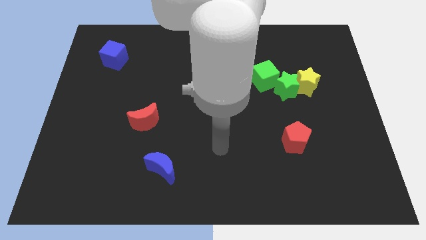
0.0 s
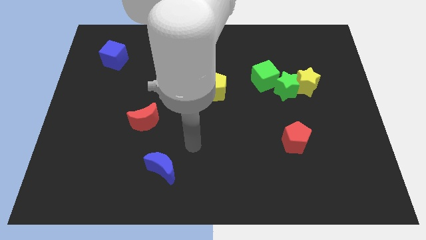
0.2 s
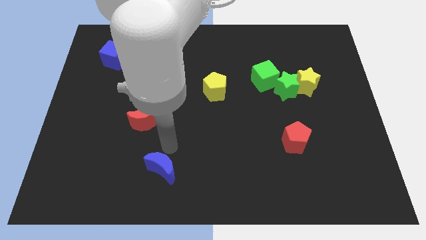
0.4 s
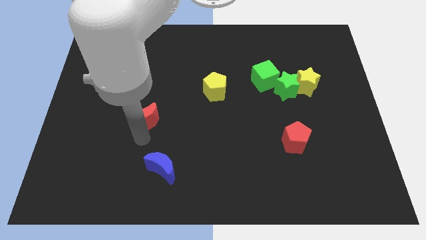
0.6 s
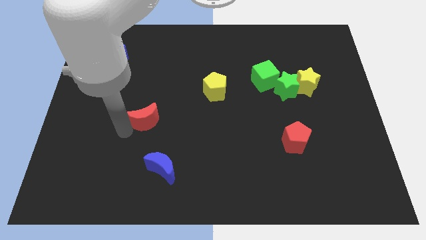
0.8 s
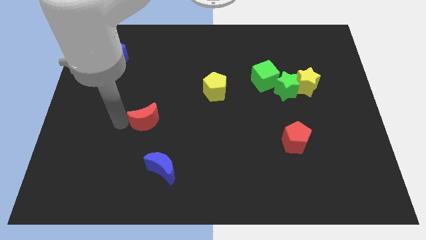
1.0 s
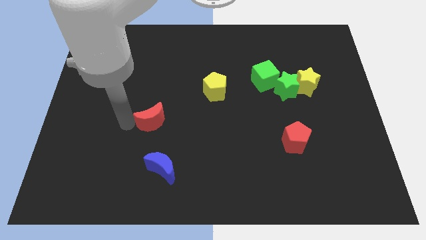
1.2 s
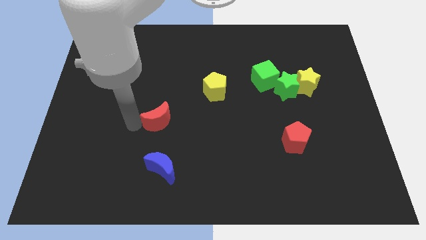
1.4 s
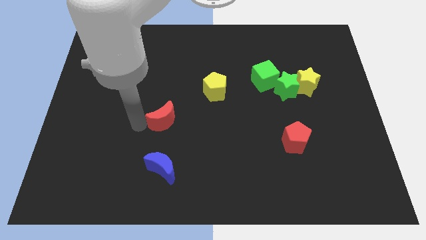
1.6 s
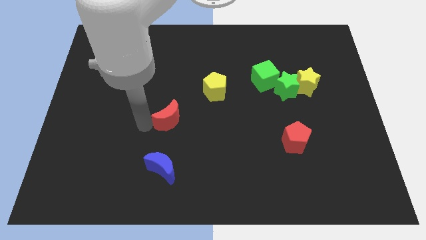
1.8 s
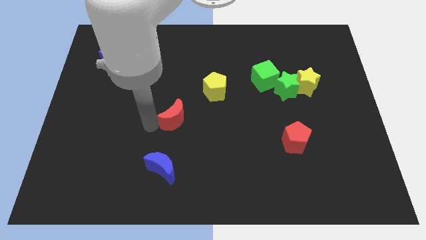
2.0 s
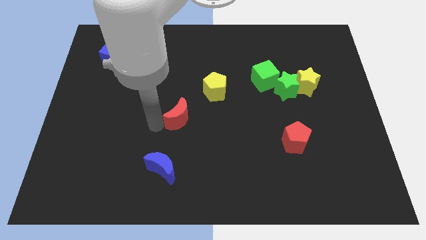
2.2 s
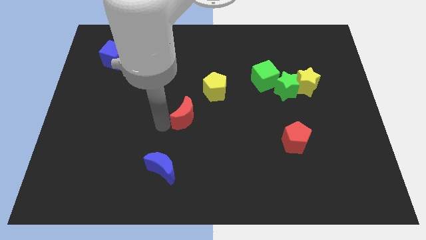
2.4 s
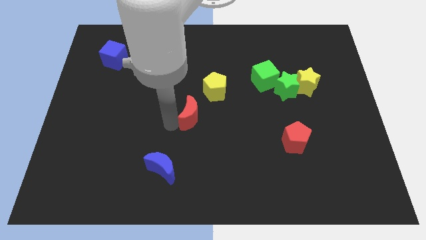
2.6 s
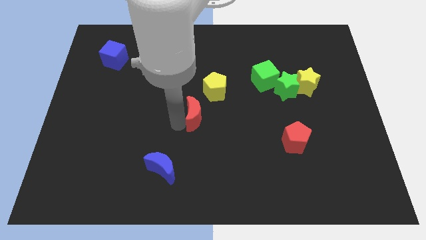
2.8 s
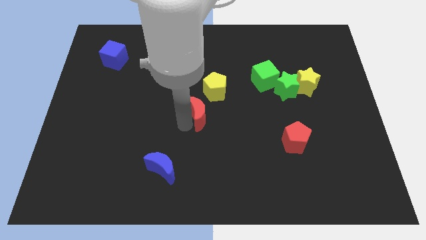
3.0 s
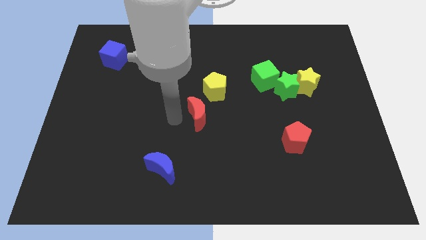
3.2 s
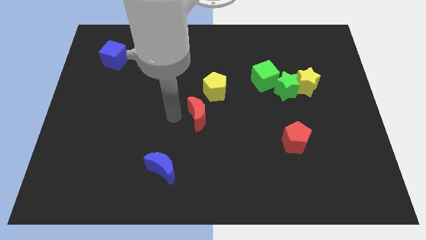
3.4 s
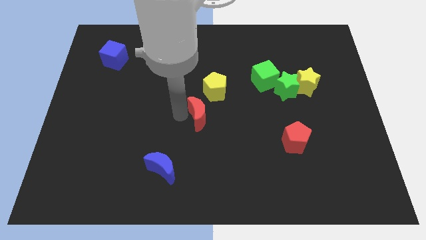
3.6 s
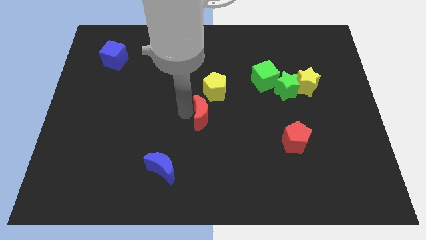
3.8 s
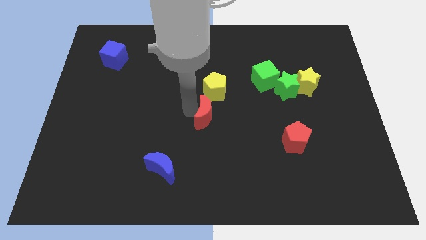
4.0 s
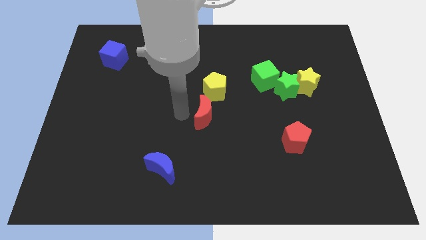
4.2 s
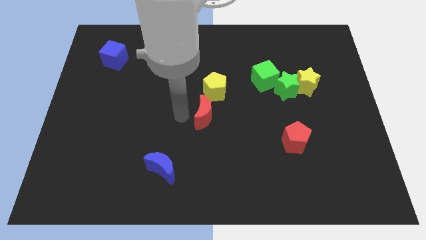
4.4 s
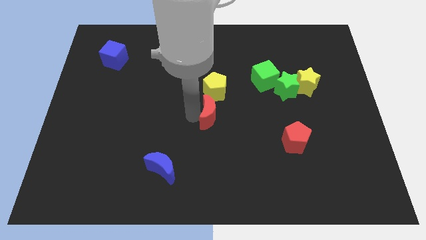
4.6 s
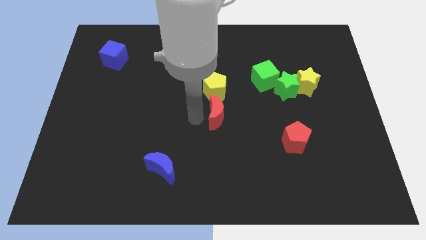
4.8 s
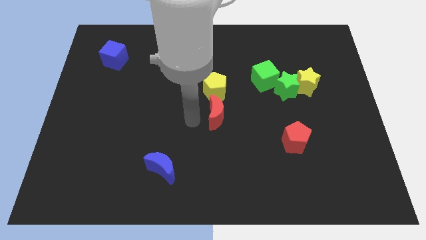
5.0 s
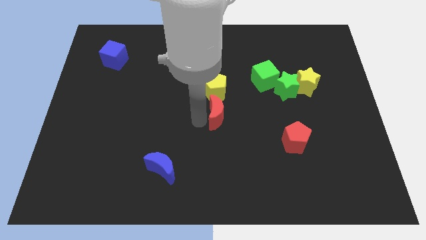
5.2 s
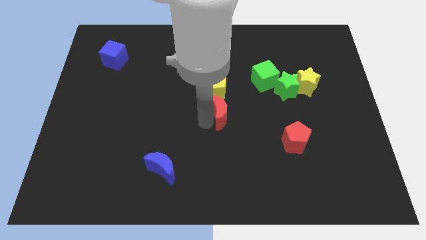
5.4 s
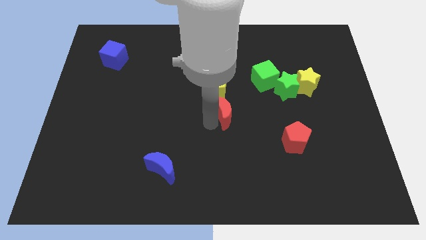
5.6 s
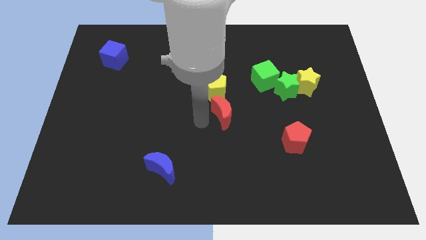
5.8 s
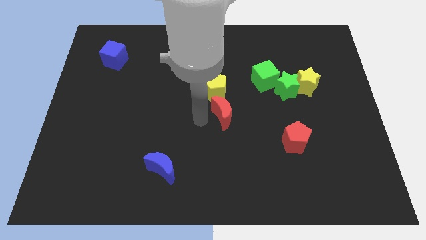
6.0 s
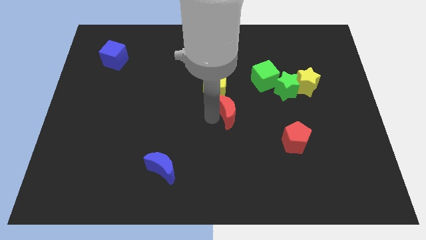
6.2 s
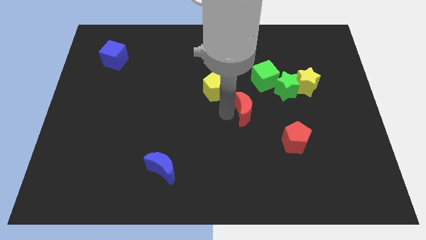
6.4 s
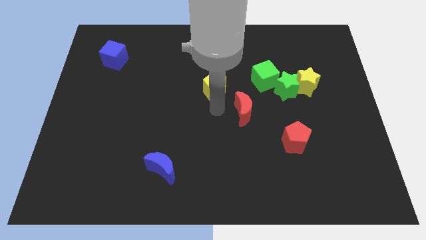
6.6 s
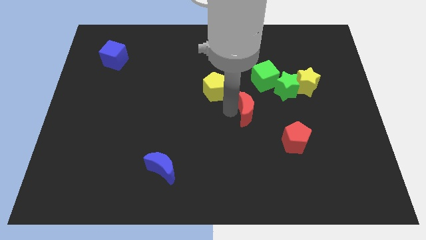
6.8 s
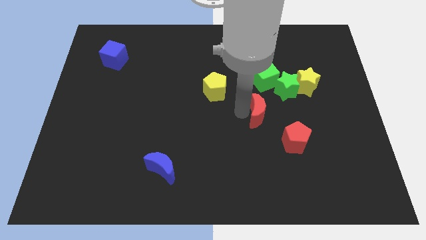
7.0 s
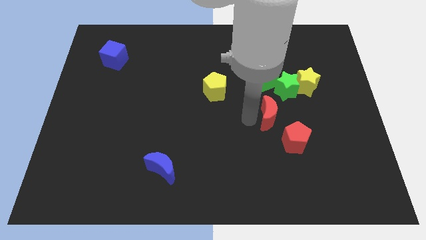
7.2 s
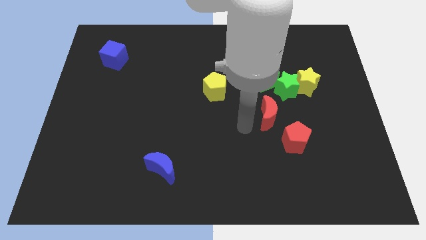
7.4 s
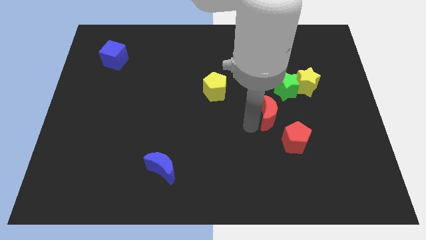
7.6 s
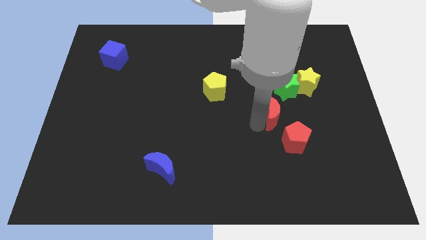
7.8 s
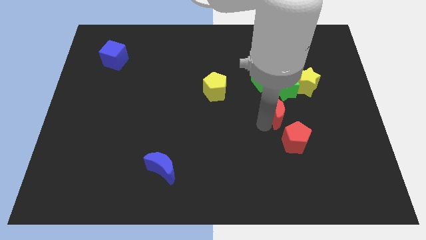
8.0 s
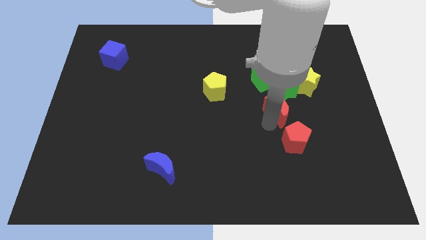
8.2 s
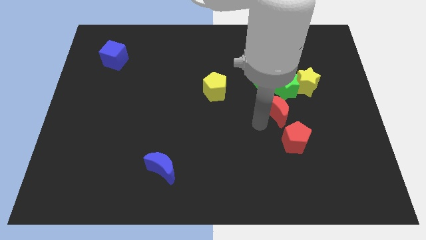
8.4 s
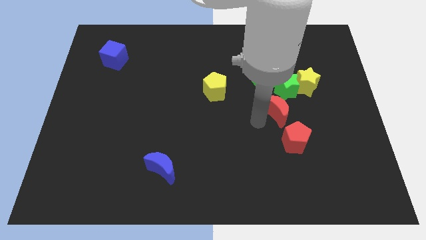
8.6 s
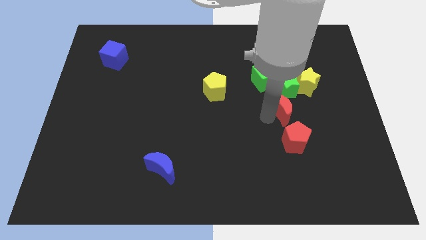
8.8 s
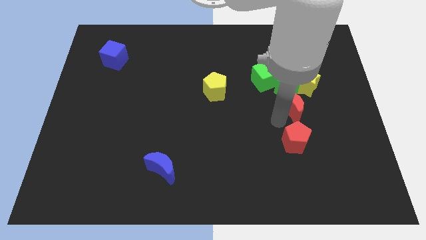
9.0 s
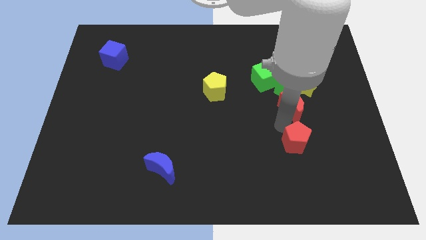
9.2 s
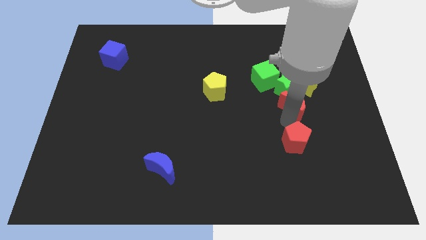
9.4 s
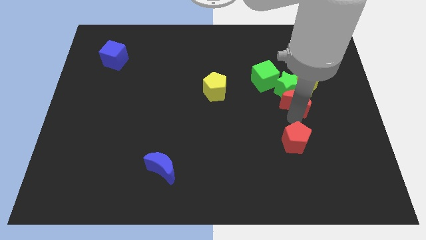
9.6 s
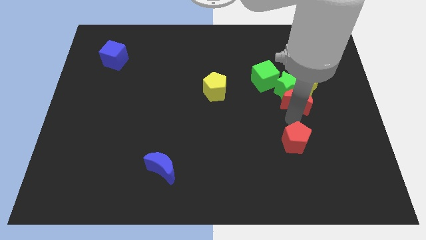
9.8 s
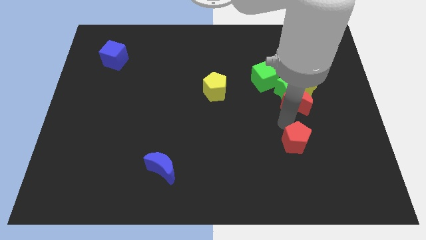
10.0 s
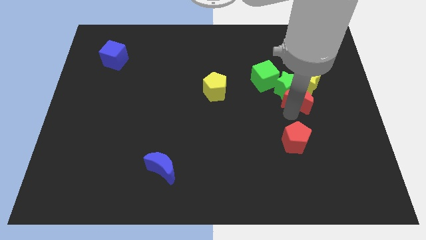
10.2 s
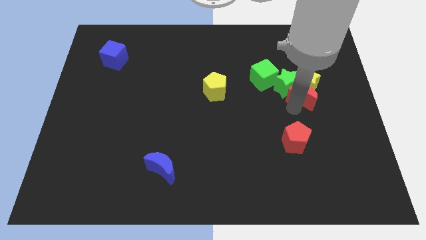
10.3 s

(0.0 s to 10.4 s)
move the red moon towards the yellow star

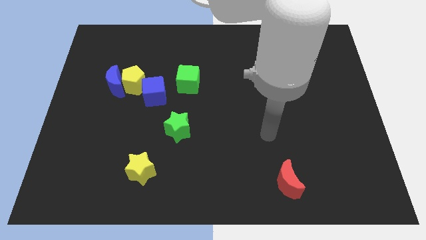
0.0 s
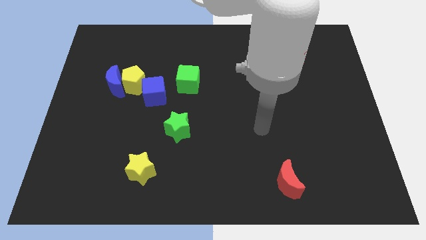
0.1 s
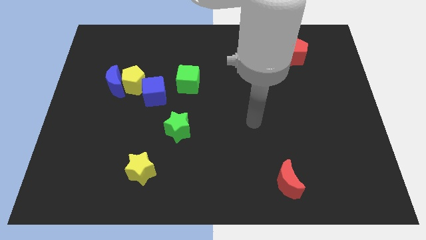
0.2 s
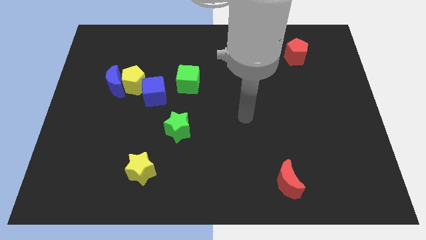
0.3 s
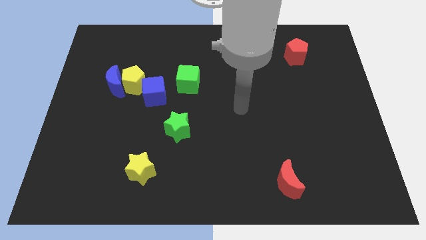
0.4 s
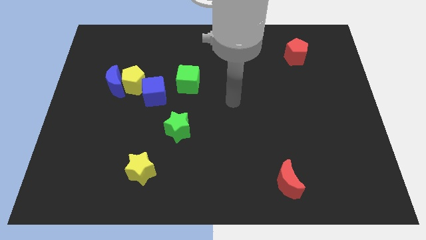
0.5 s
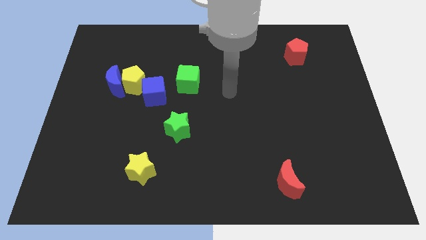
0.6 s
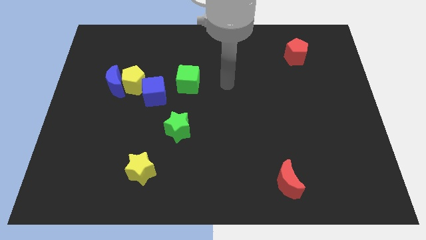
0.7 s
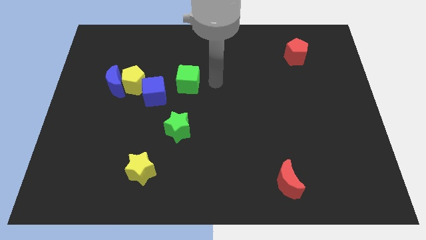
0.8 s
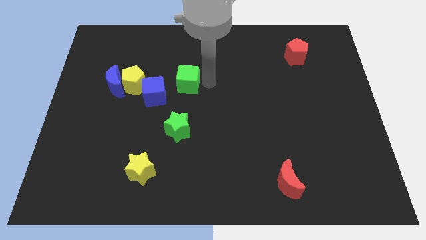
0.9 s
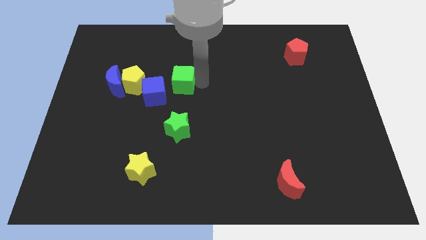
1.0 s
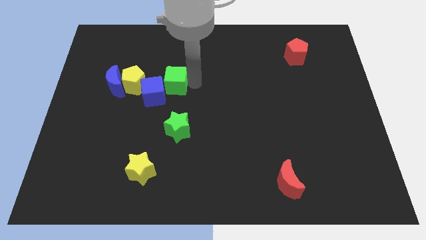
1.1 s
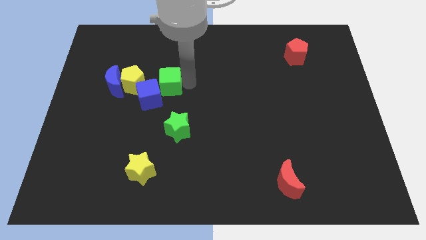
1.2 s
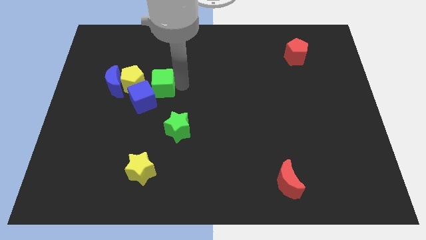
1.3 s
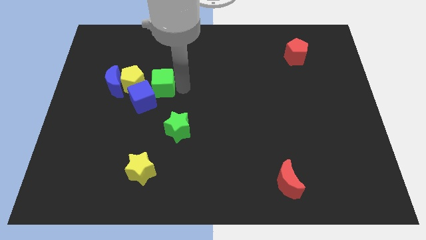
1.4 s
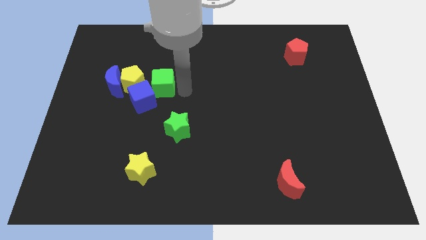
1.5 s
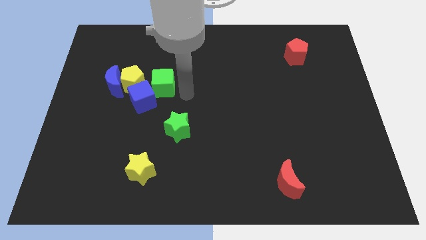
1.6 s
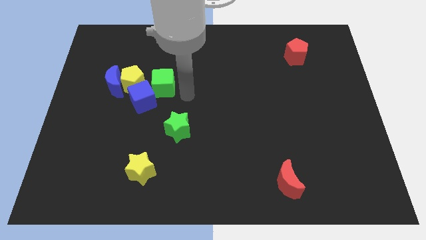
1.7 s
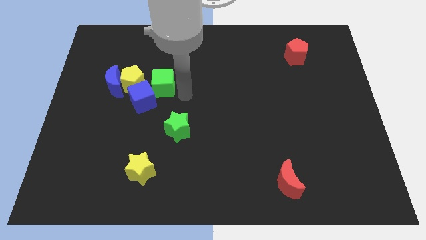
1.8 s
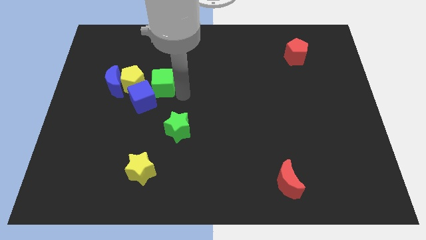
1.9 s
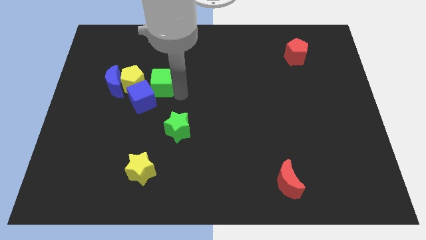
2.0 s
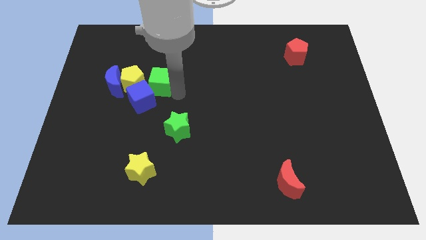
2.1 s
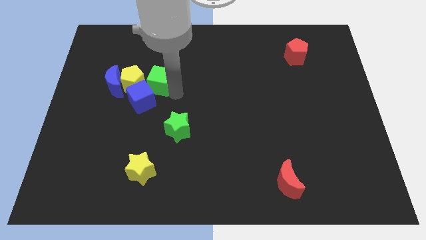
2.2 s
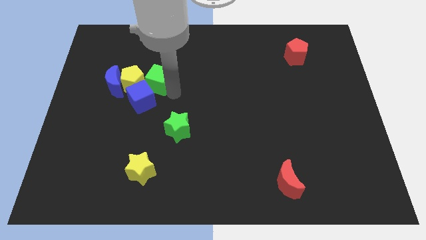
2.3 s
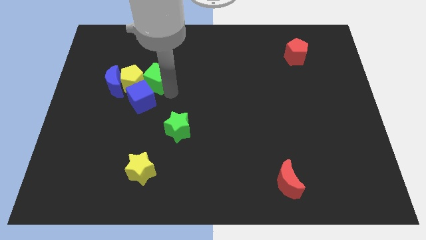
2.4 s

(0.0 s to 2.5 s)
push the green cube to the yellow pentagon
